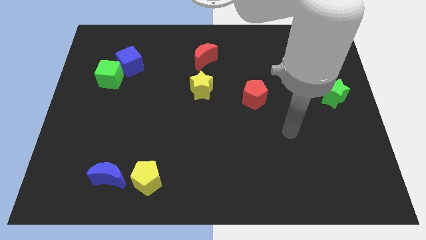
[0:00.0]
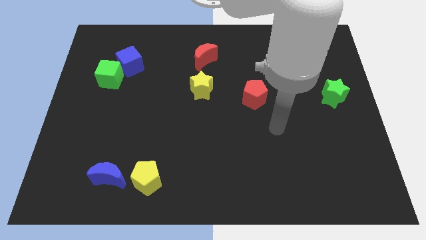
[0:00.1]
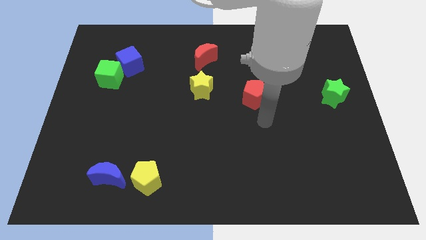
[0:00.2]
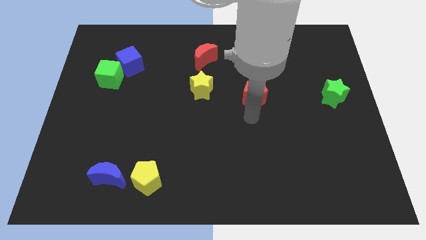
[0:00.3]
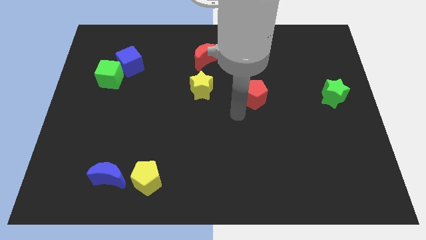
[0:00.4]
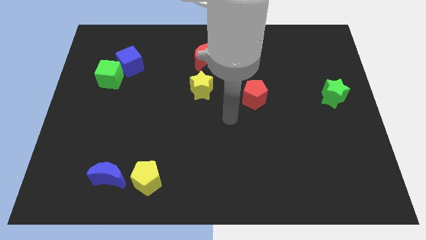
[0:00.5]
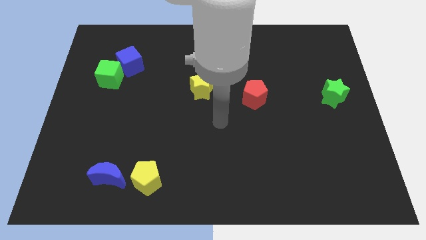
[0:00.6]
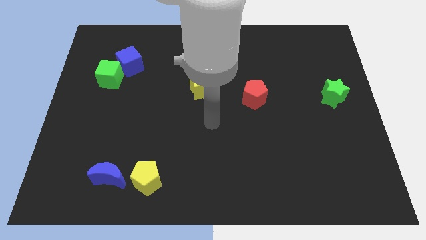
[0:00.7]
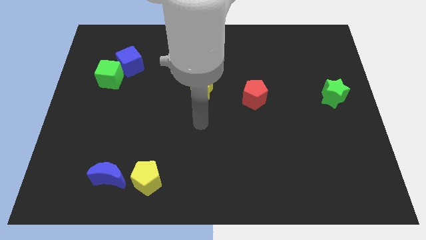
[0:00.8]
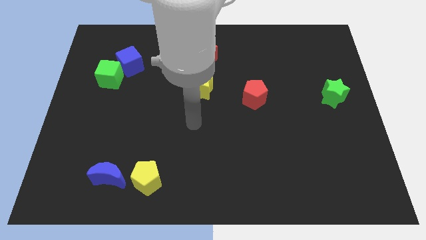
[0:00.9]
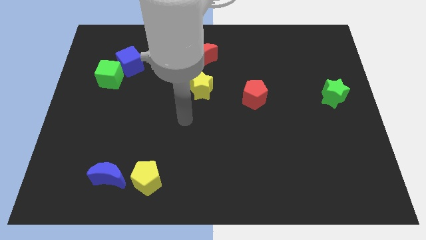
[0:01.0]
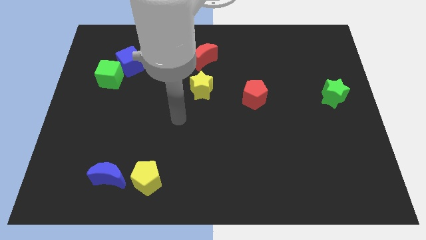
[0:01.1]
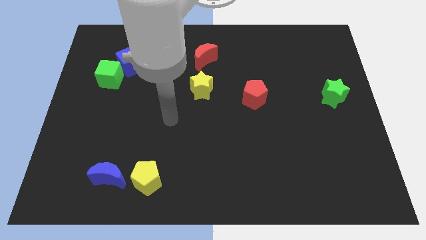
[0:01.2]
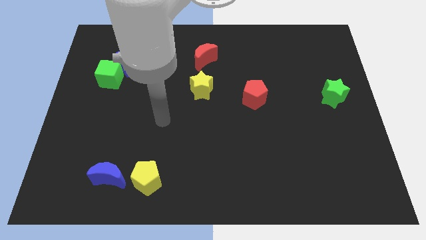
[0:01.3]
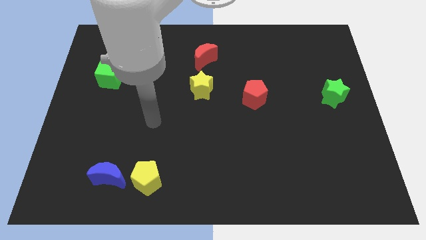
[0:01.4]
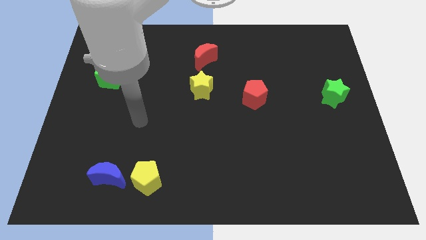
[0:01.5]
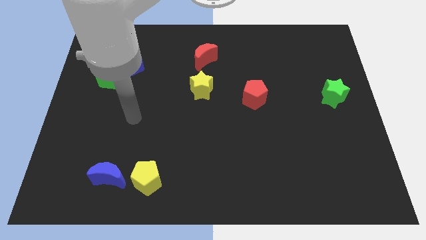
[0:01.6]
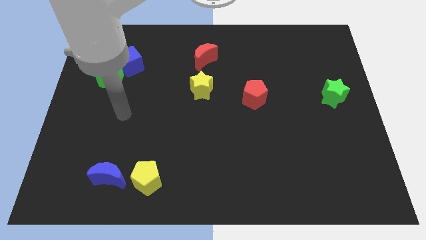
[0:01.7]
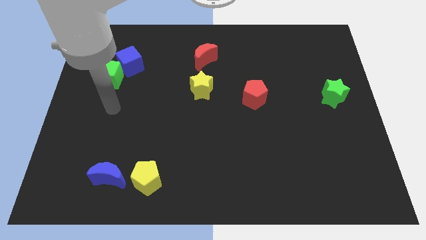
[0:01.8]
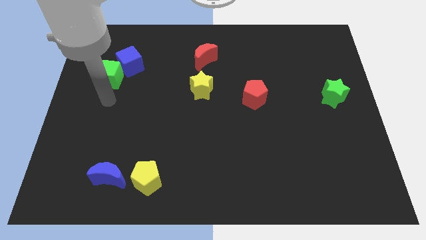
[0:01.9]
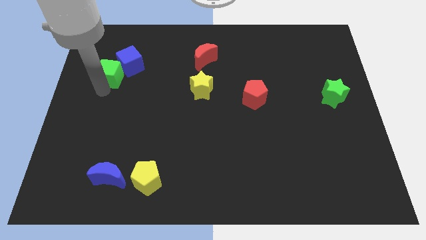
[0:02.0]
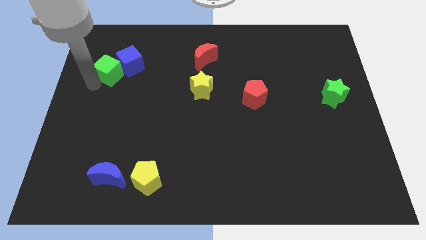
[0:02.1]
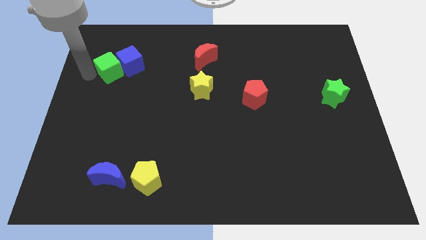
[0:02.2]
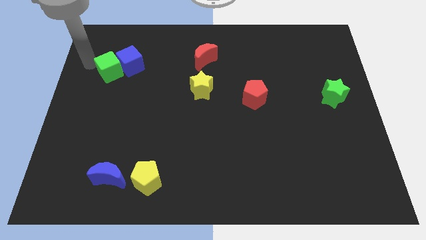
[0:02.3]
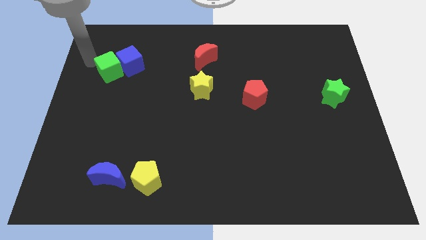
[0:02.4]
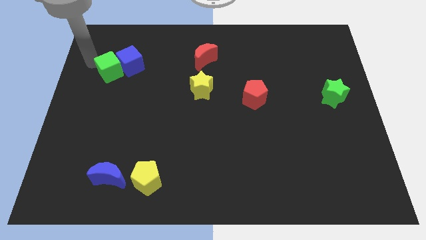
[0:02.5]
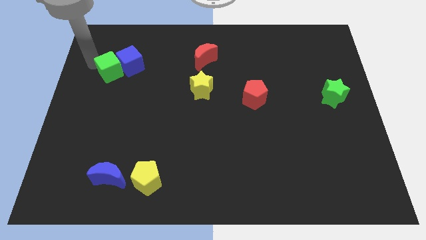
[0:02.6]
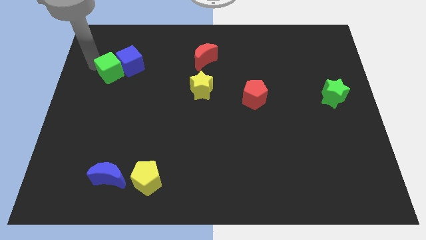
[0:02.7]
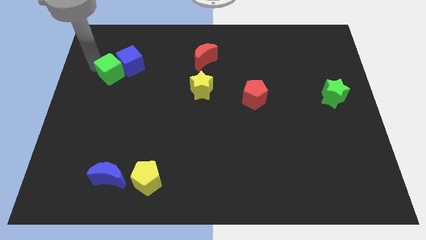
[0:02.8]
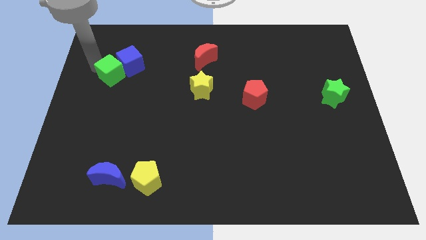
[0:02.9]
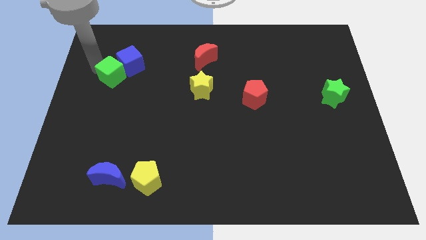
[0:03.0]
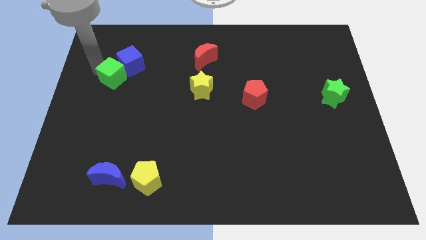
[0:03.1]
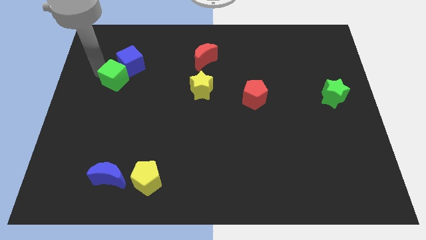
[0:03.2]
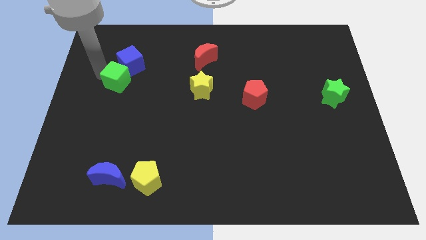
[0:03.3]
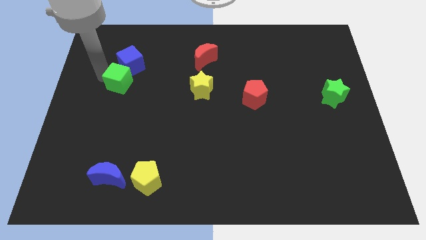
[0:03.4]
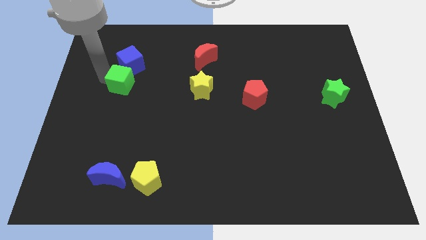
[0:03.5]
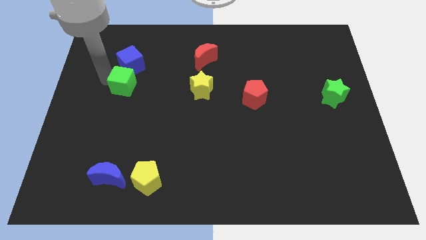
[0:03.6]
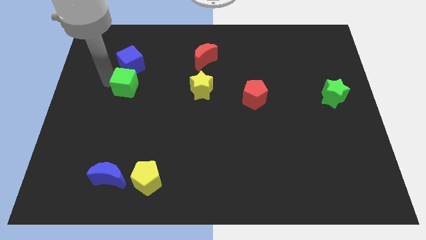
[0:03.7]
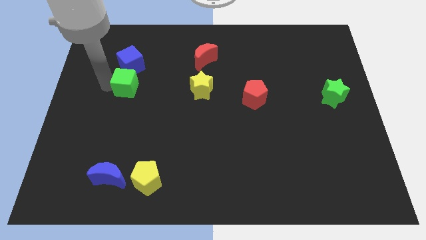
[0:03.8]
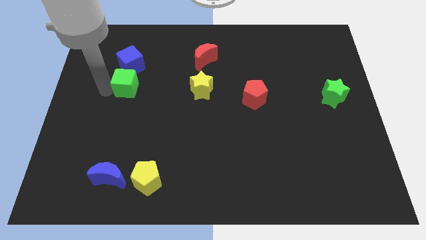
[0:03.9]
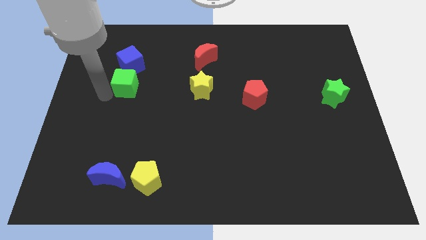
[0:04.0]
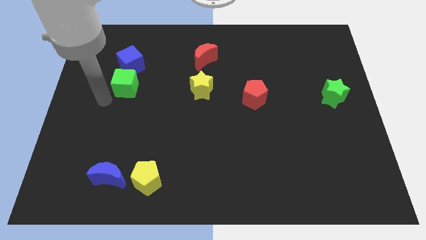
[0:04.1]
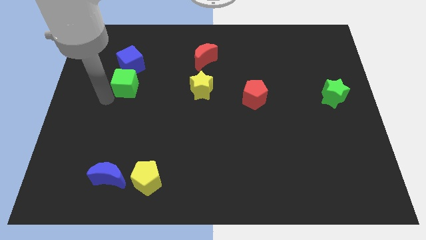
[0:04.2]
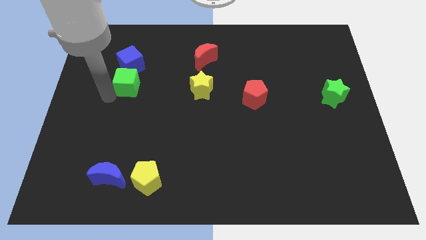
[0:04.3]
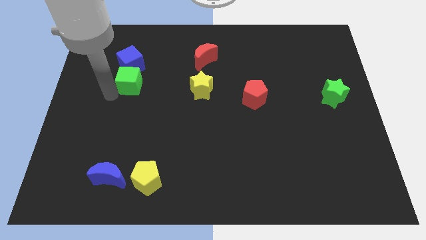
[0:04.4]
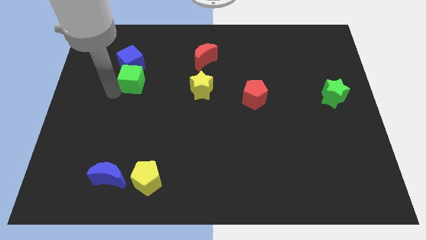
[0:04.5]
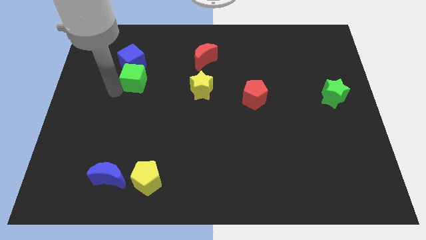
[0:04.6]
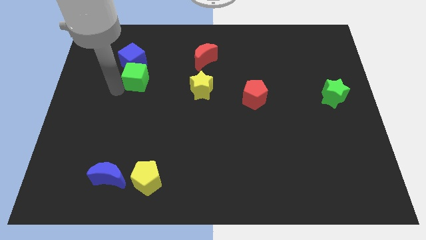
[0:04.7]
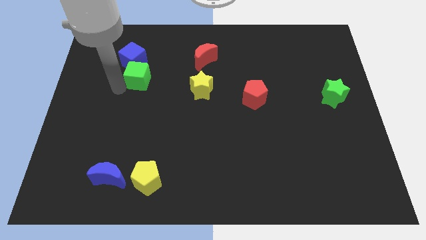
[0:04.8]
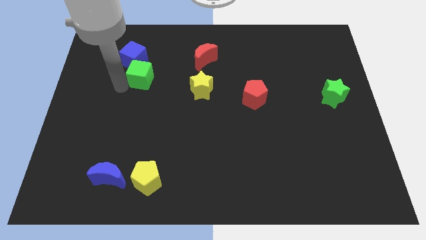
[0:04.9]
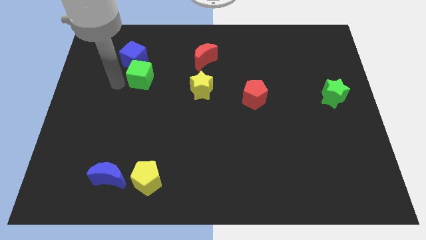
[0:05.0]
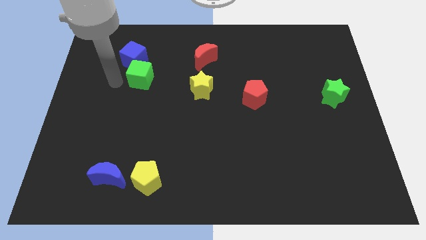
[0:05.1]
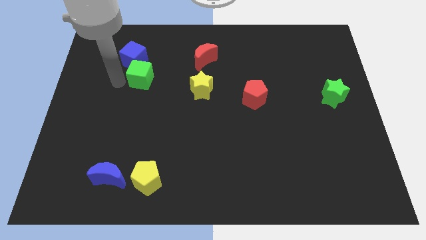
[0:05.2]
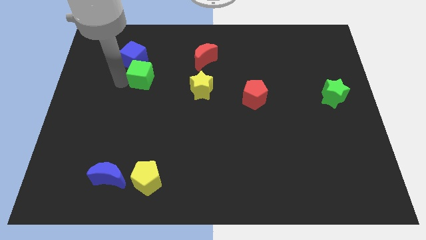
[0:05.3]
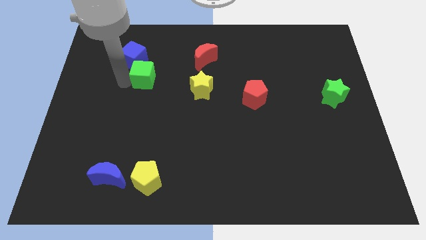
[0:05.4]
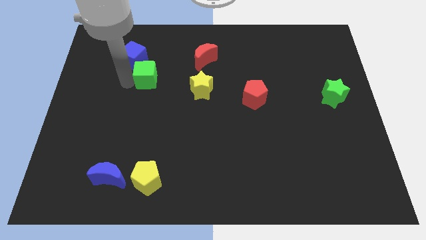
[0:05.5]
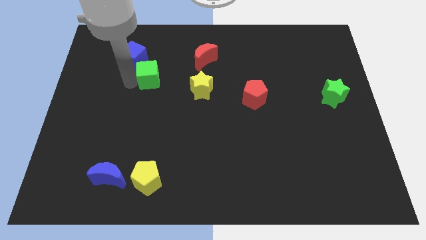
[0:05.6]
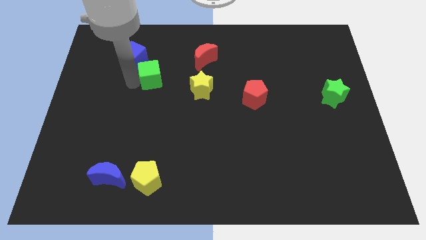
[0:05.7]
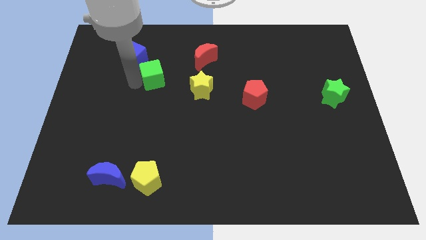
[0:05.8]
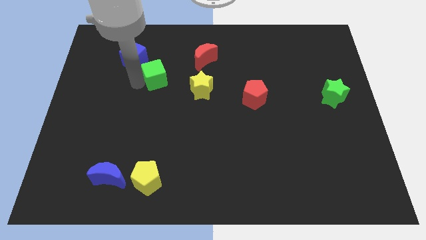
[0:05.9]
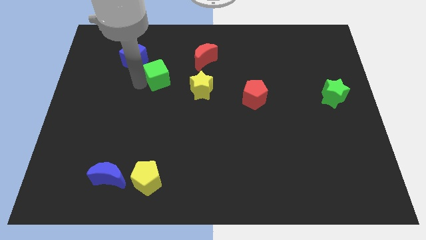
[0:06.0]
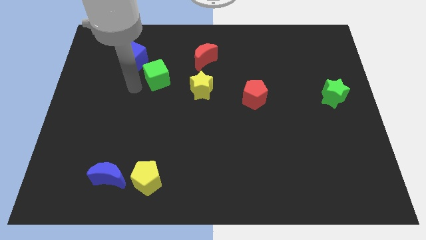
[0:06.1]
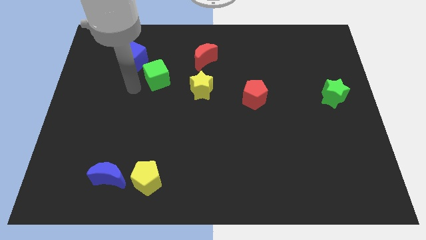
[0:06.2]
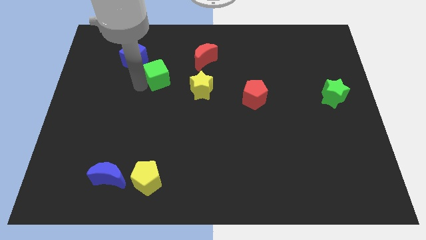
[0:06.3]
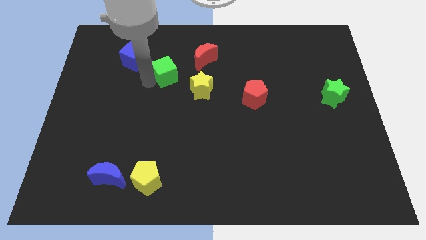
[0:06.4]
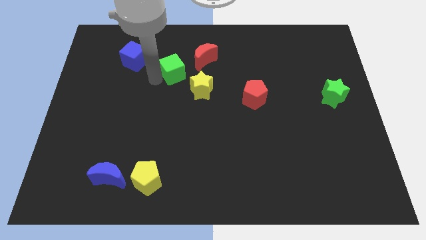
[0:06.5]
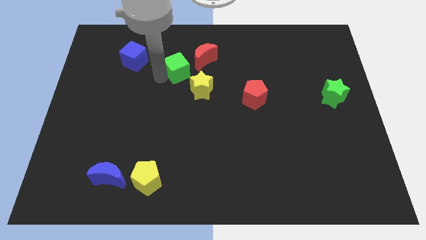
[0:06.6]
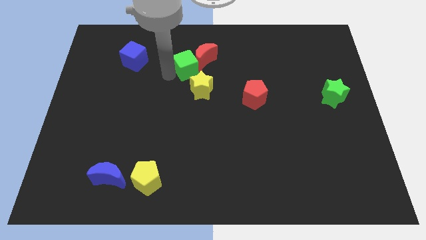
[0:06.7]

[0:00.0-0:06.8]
put the green cube to the red moon

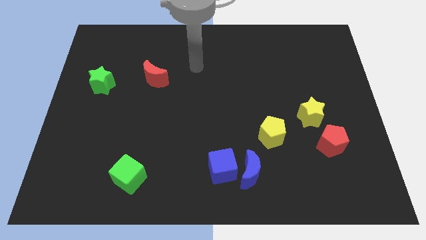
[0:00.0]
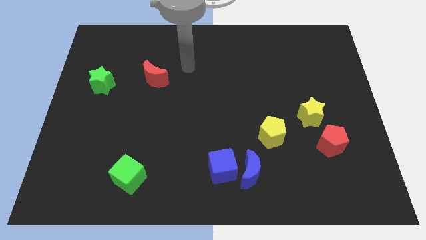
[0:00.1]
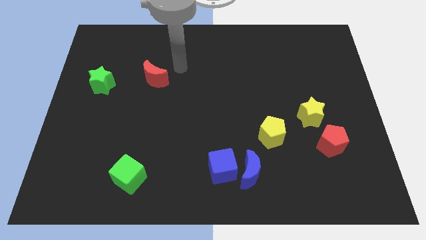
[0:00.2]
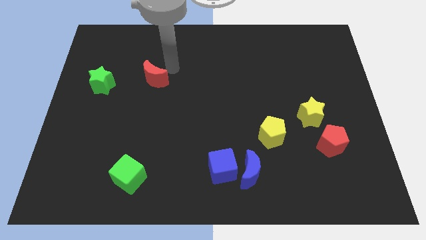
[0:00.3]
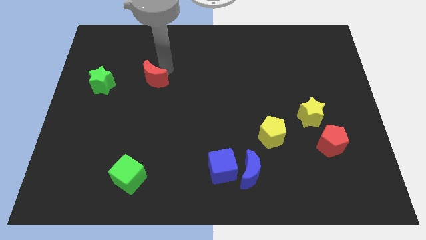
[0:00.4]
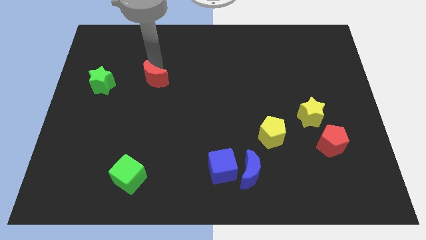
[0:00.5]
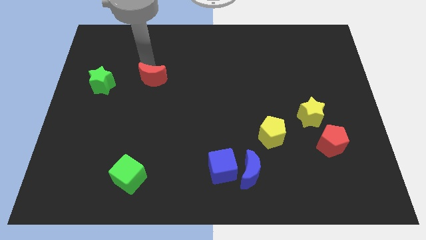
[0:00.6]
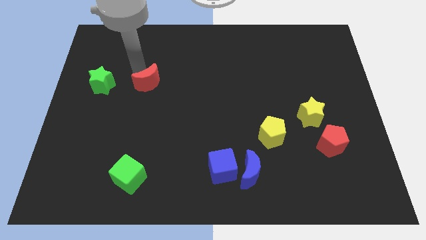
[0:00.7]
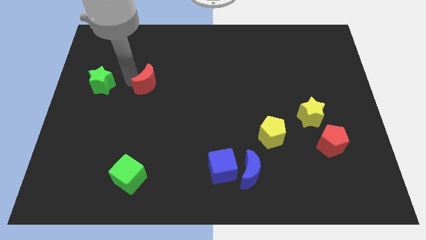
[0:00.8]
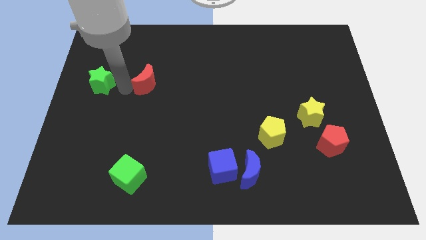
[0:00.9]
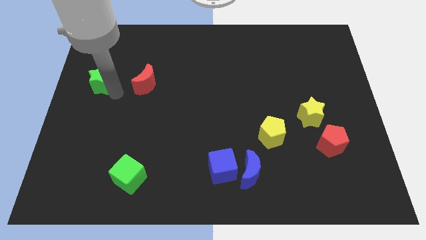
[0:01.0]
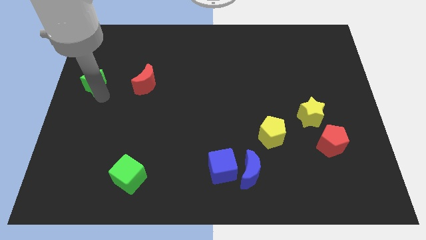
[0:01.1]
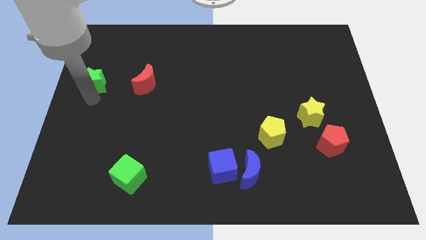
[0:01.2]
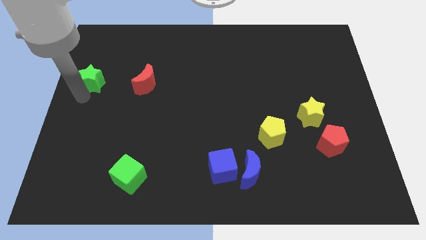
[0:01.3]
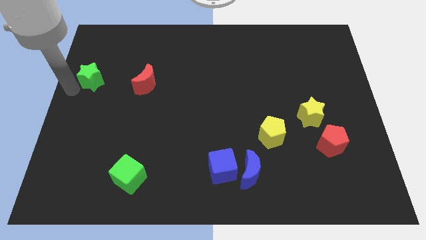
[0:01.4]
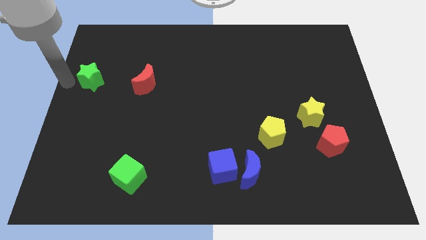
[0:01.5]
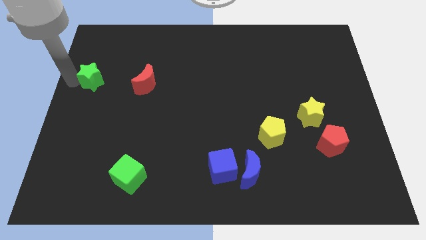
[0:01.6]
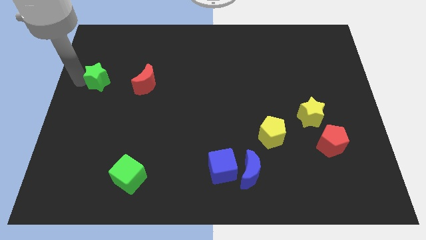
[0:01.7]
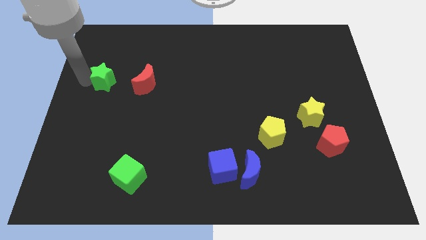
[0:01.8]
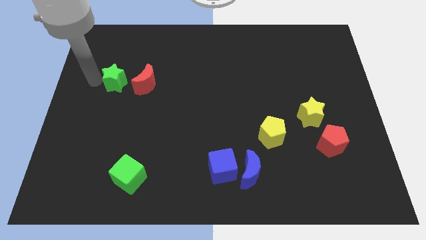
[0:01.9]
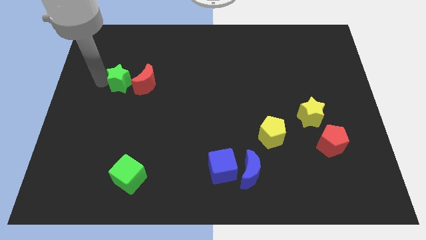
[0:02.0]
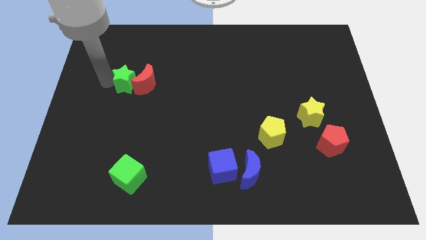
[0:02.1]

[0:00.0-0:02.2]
push the green star close to the red moon
